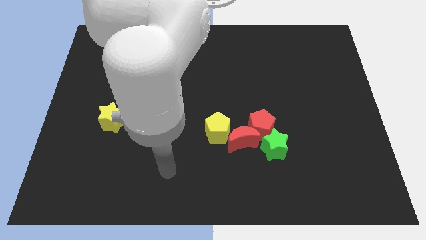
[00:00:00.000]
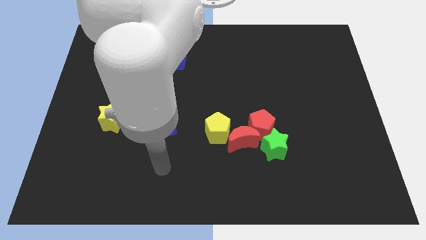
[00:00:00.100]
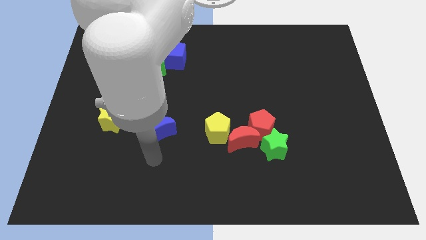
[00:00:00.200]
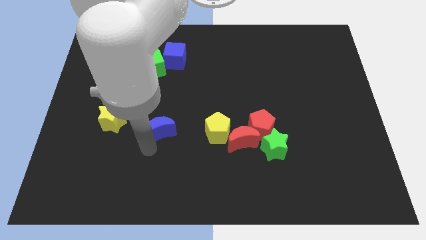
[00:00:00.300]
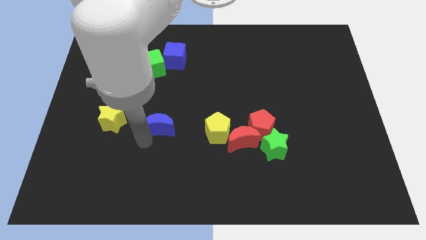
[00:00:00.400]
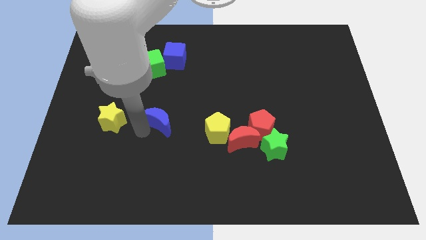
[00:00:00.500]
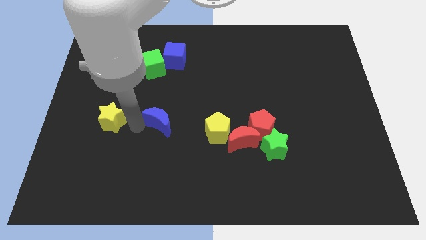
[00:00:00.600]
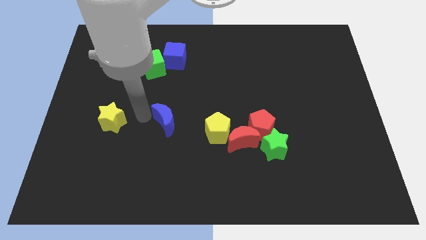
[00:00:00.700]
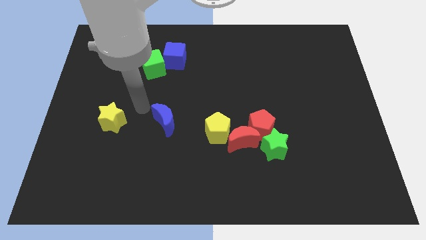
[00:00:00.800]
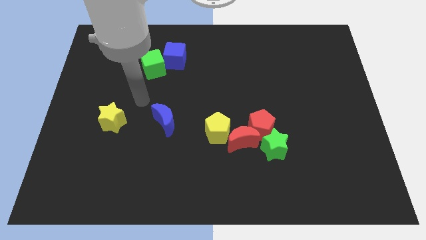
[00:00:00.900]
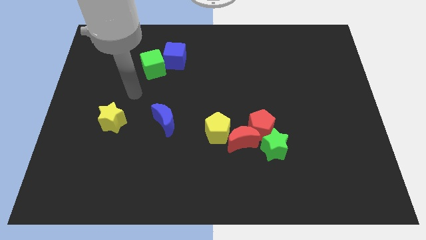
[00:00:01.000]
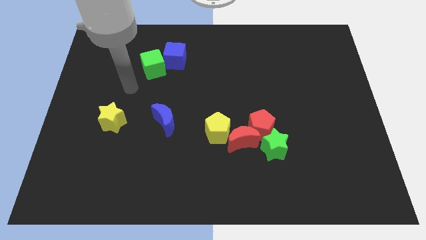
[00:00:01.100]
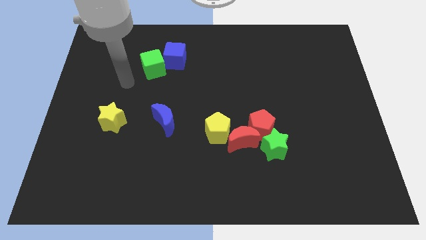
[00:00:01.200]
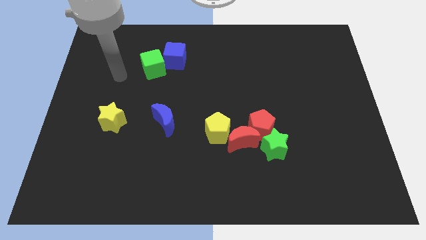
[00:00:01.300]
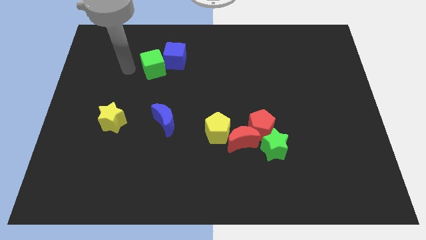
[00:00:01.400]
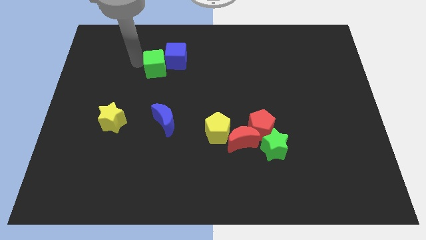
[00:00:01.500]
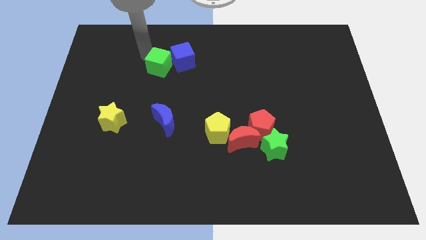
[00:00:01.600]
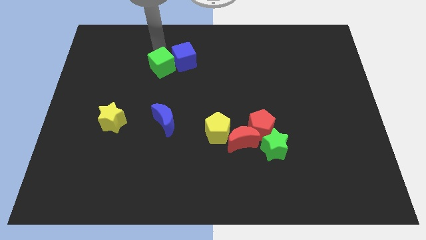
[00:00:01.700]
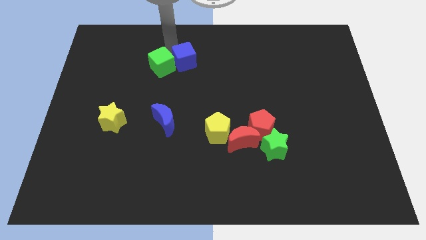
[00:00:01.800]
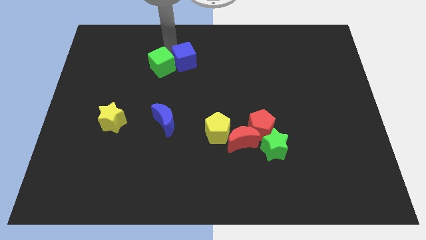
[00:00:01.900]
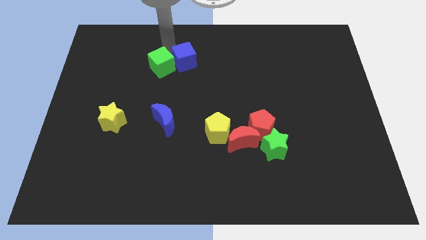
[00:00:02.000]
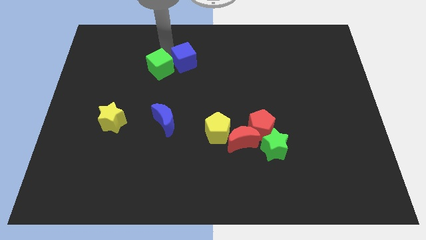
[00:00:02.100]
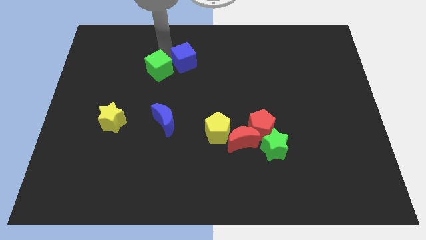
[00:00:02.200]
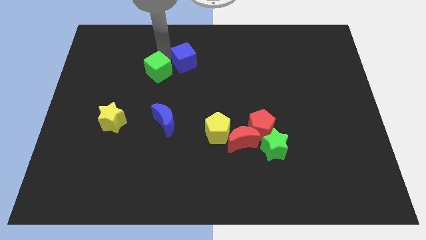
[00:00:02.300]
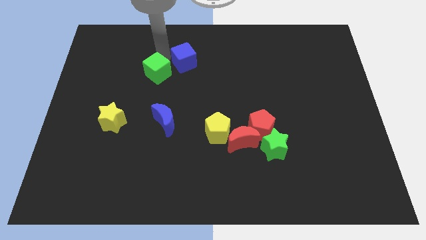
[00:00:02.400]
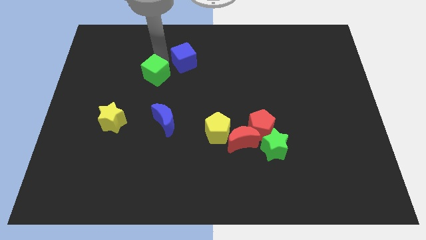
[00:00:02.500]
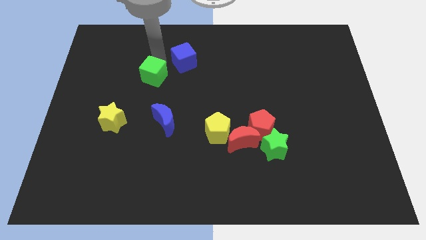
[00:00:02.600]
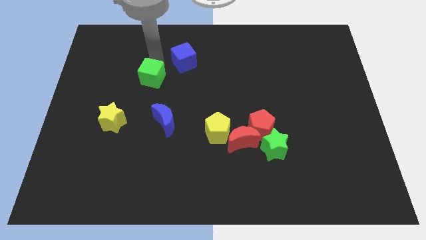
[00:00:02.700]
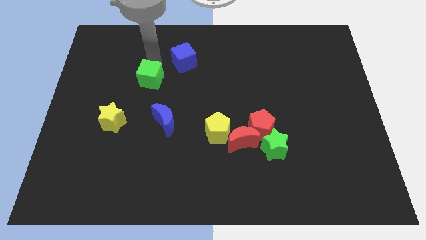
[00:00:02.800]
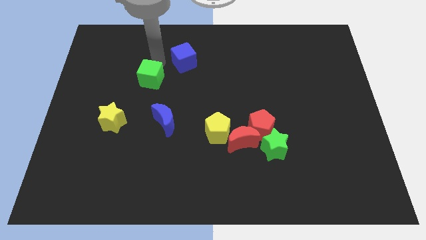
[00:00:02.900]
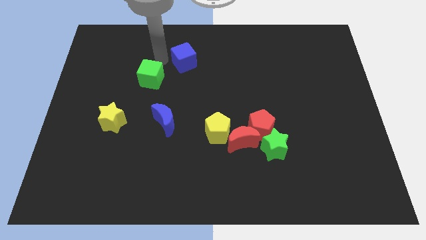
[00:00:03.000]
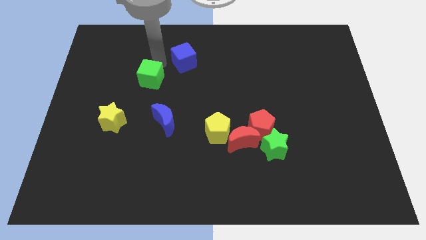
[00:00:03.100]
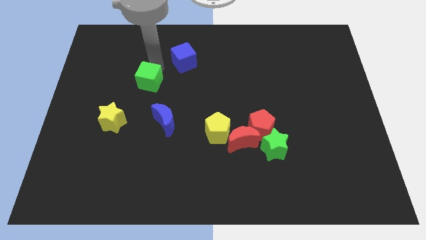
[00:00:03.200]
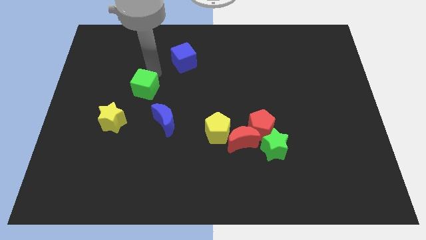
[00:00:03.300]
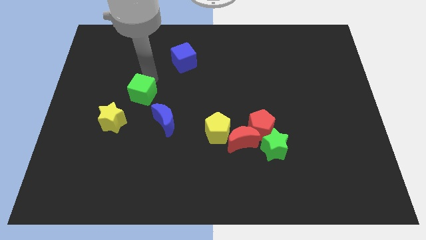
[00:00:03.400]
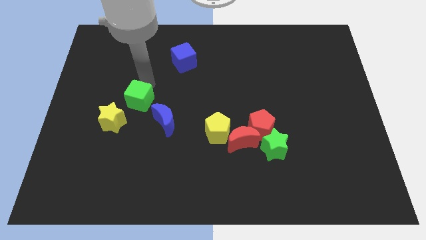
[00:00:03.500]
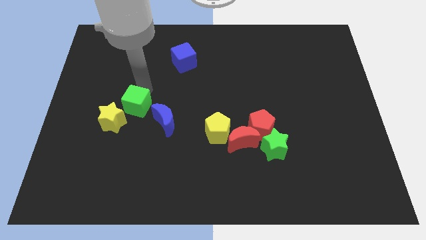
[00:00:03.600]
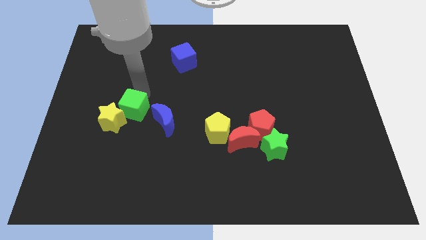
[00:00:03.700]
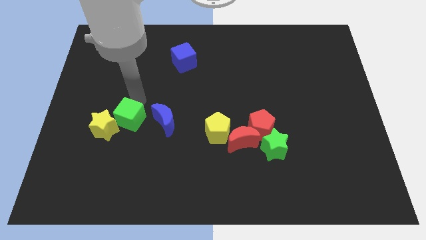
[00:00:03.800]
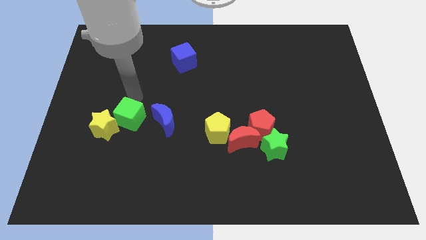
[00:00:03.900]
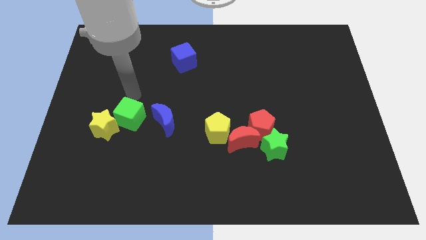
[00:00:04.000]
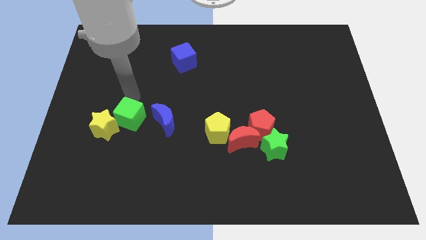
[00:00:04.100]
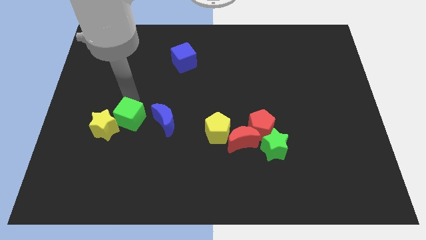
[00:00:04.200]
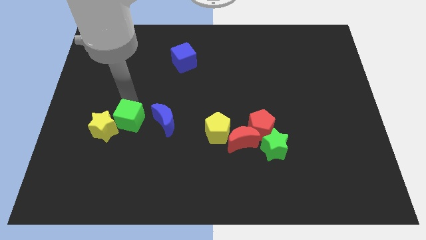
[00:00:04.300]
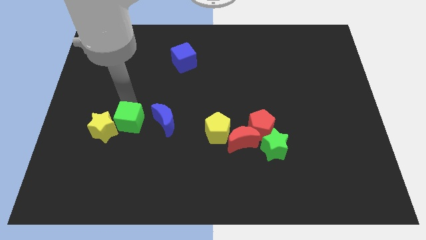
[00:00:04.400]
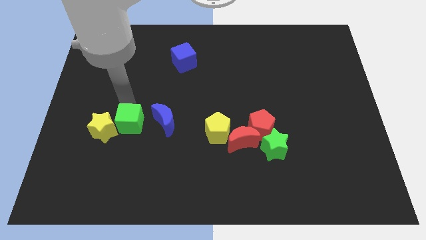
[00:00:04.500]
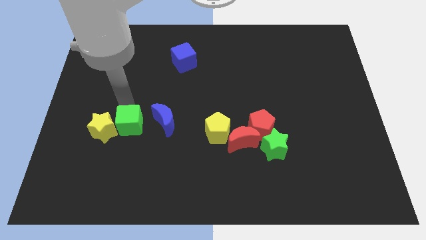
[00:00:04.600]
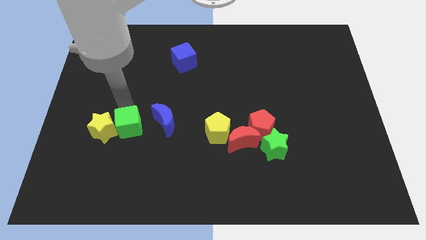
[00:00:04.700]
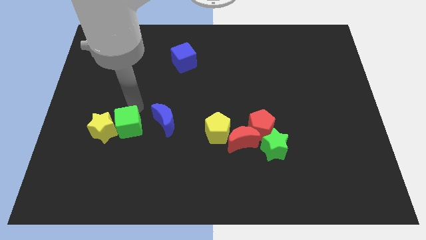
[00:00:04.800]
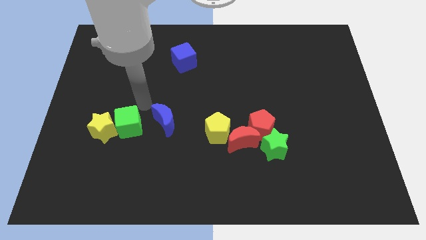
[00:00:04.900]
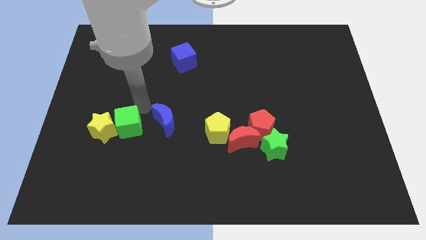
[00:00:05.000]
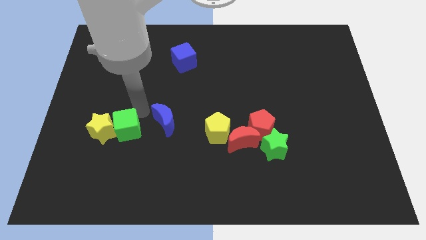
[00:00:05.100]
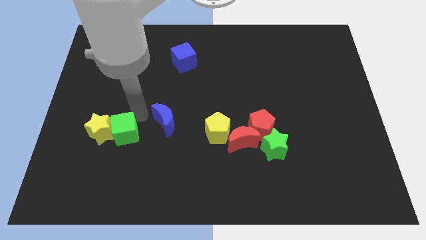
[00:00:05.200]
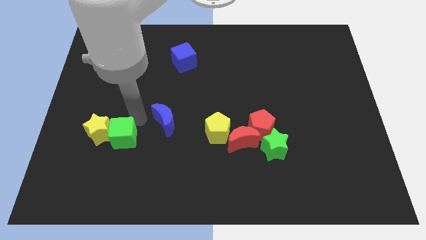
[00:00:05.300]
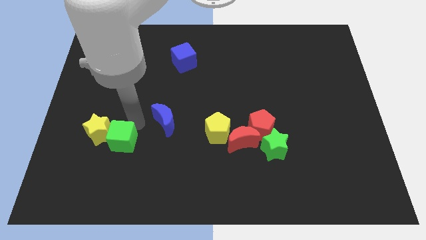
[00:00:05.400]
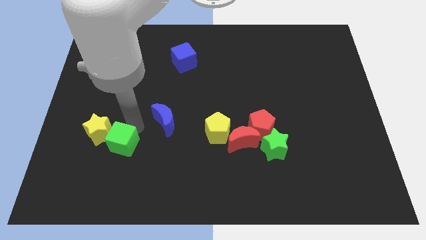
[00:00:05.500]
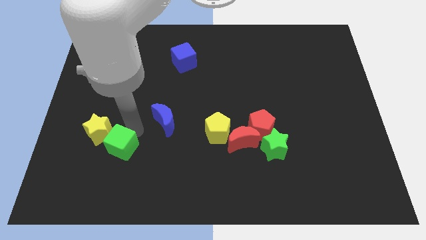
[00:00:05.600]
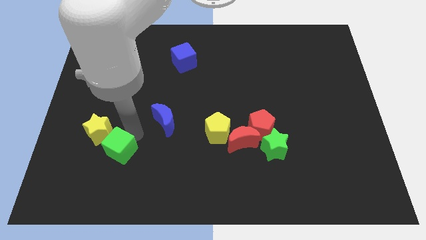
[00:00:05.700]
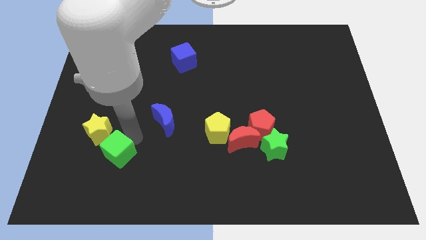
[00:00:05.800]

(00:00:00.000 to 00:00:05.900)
slide the green cube to the bottom side of the yellow star

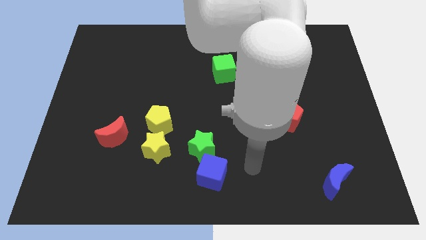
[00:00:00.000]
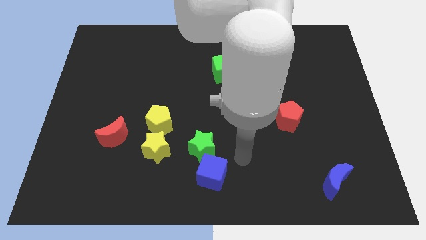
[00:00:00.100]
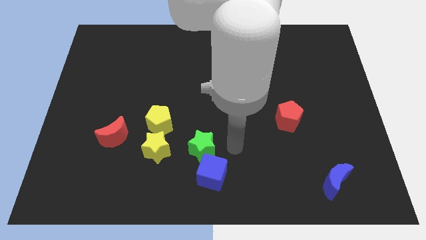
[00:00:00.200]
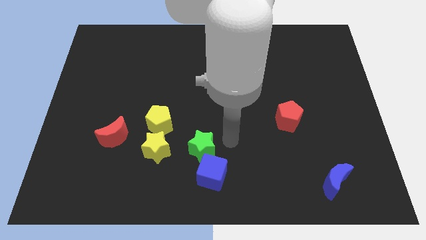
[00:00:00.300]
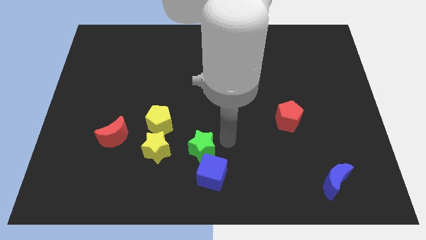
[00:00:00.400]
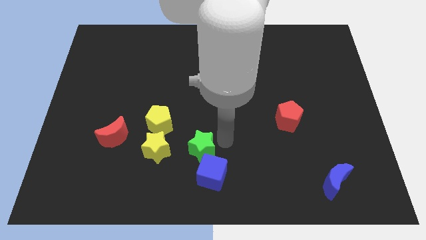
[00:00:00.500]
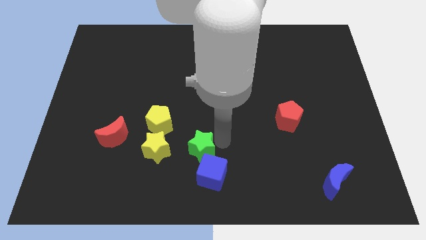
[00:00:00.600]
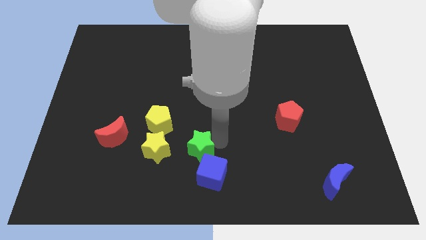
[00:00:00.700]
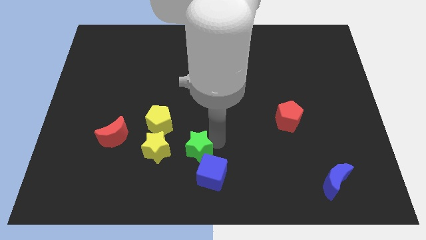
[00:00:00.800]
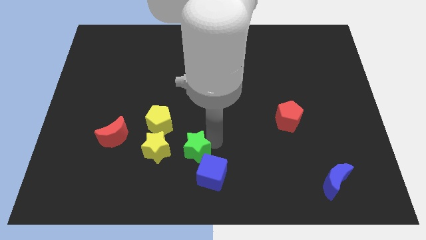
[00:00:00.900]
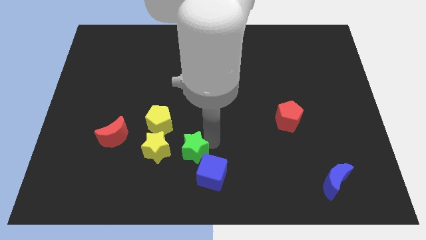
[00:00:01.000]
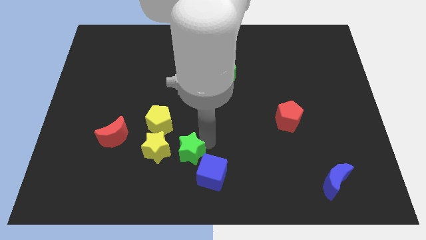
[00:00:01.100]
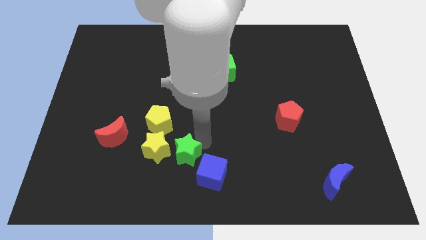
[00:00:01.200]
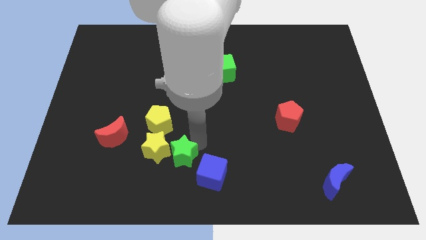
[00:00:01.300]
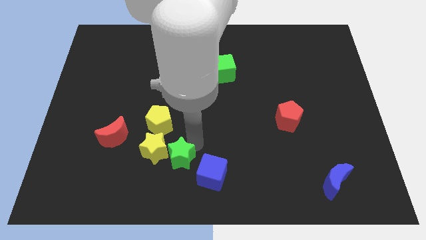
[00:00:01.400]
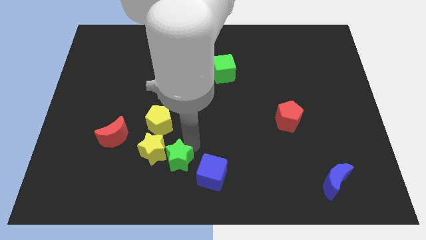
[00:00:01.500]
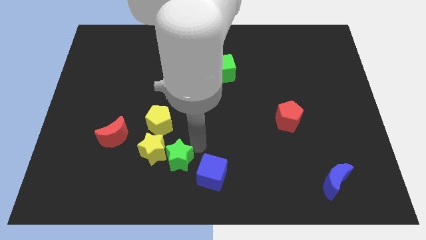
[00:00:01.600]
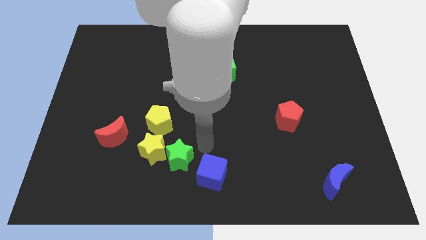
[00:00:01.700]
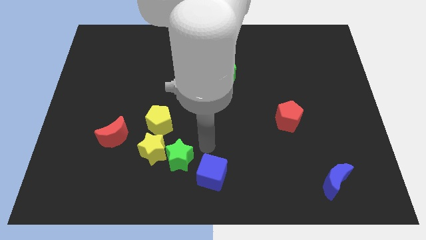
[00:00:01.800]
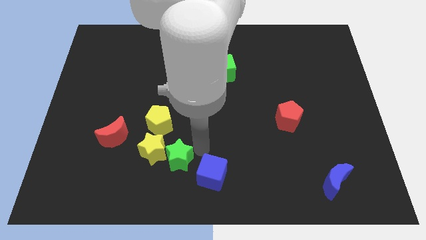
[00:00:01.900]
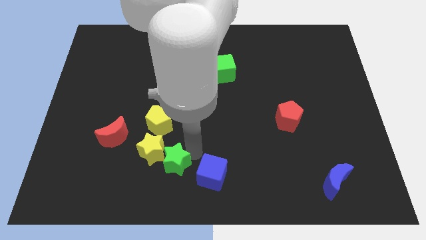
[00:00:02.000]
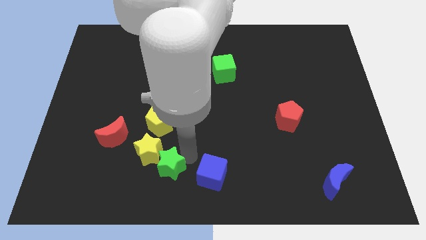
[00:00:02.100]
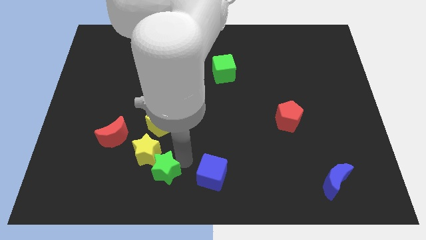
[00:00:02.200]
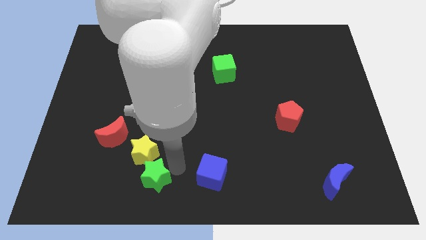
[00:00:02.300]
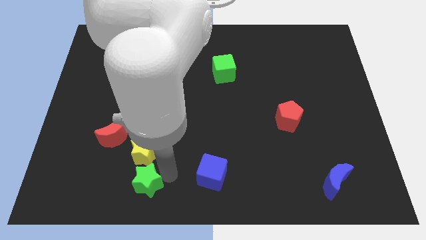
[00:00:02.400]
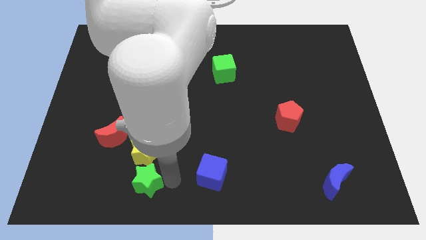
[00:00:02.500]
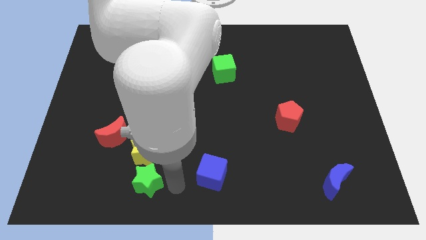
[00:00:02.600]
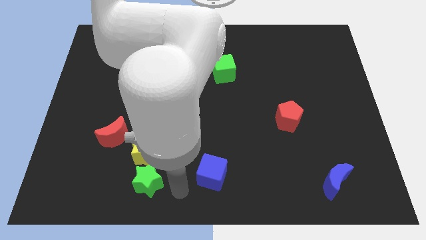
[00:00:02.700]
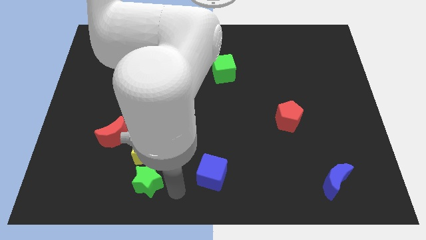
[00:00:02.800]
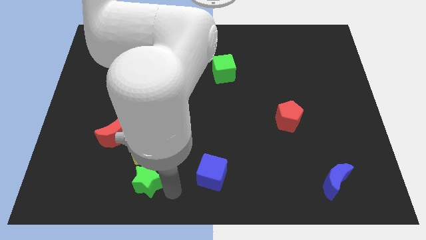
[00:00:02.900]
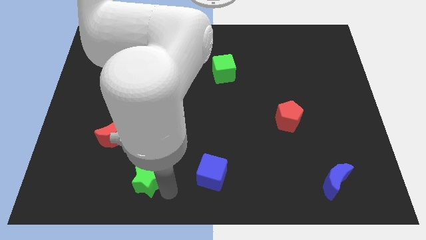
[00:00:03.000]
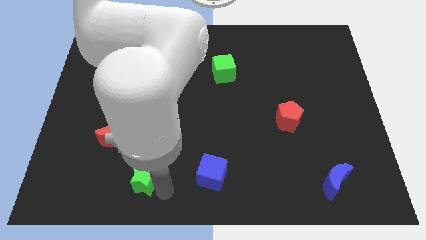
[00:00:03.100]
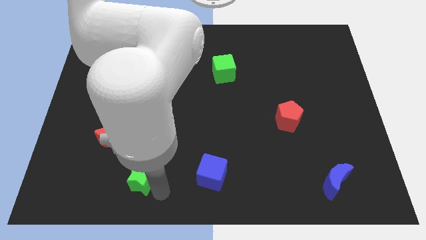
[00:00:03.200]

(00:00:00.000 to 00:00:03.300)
slide the green star diagonally down and to the left of the yellow star
